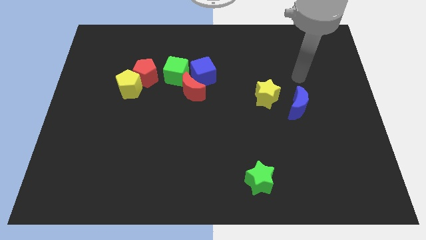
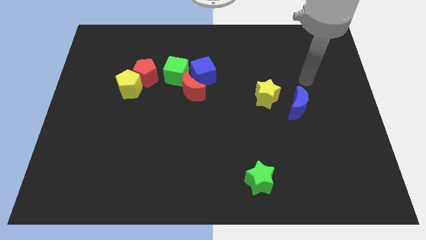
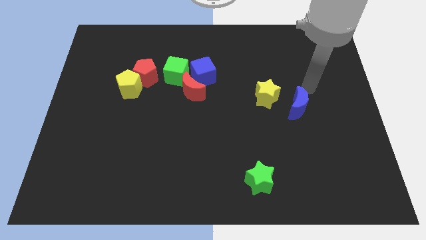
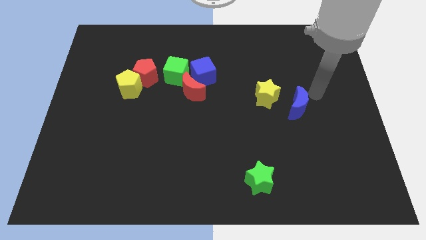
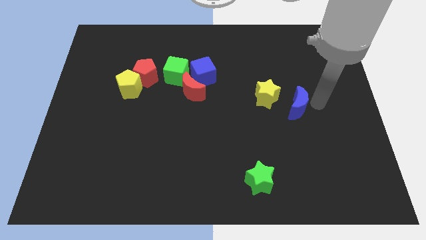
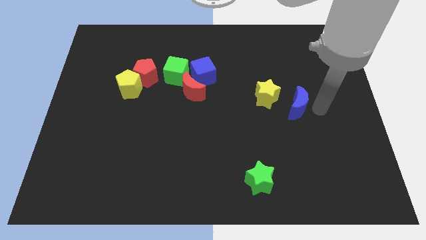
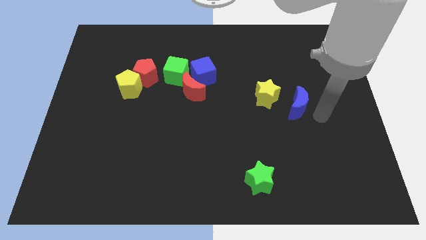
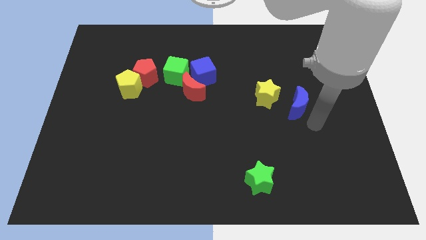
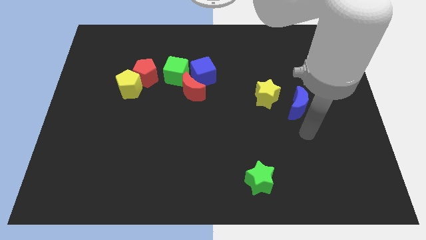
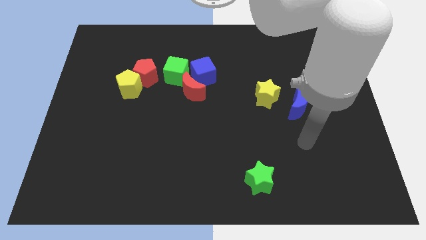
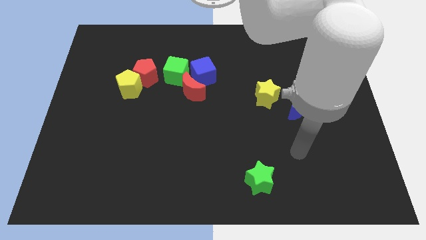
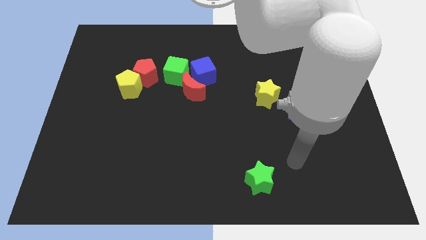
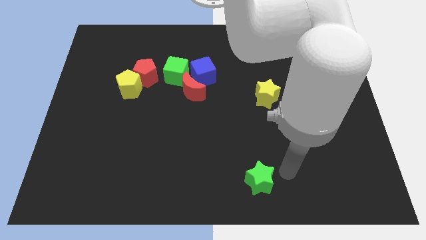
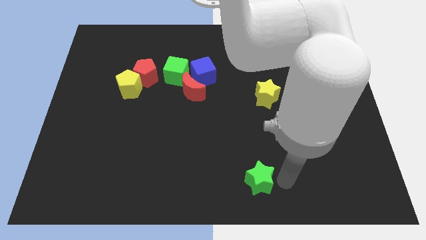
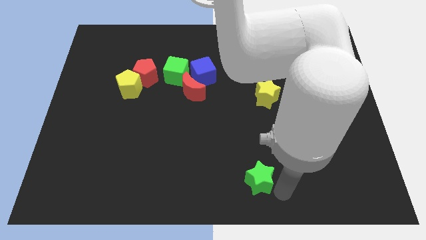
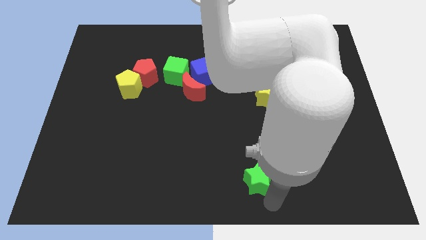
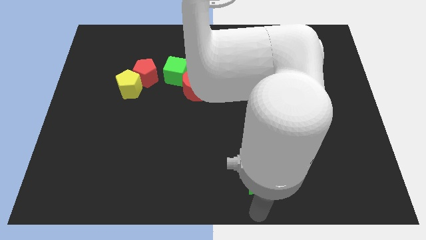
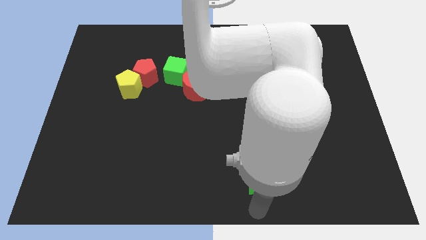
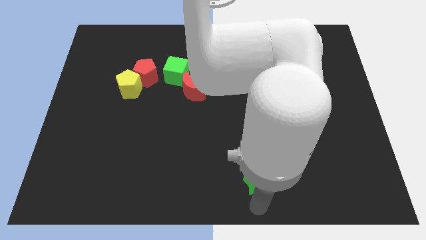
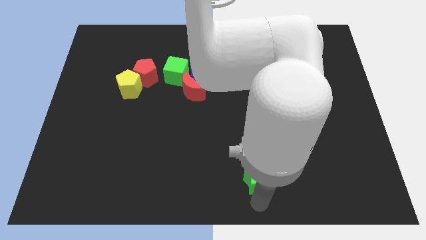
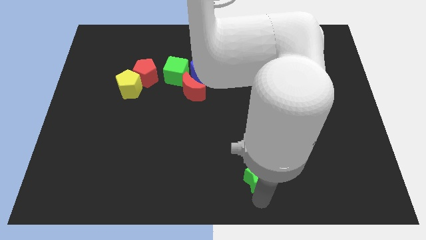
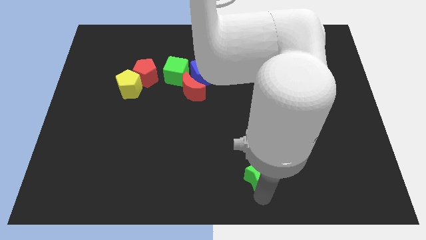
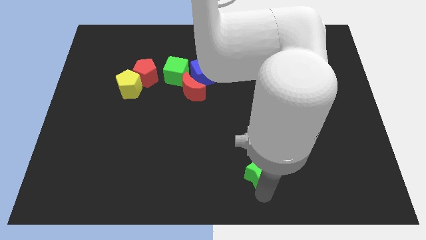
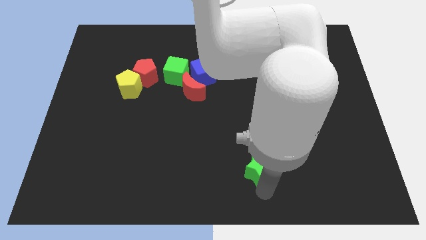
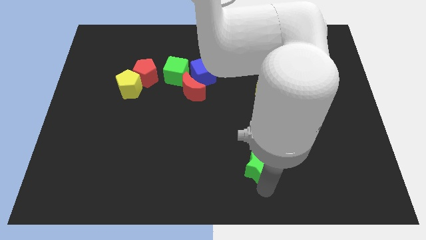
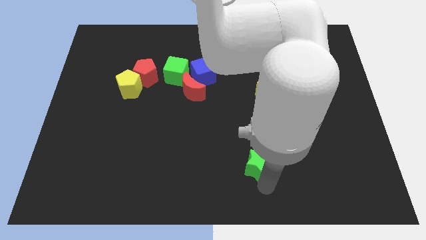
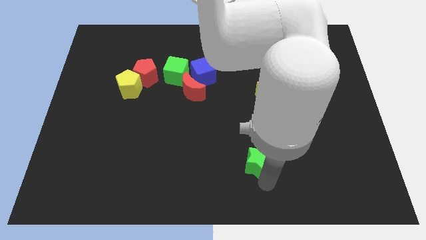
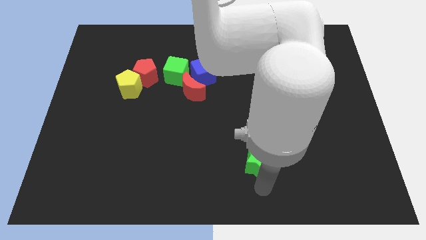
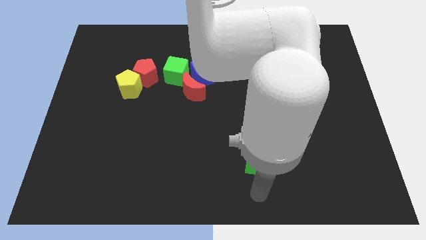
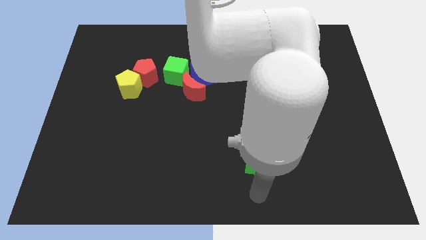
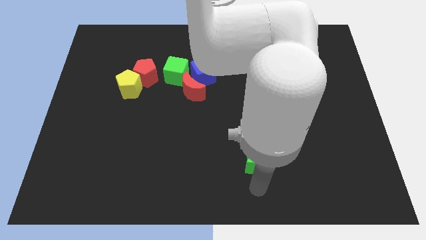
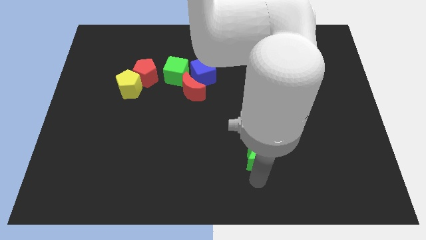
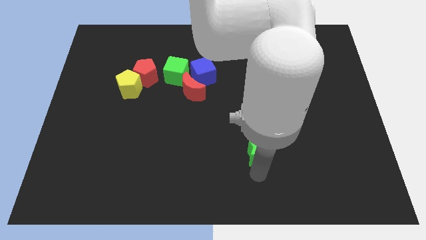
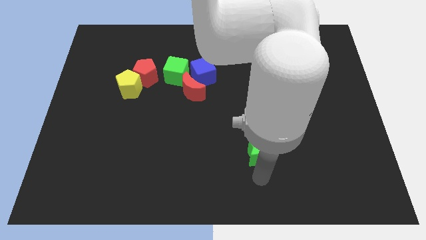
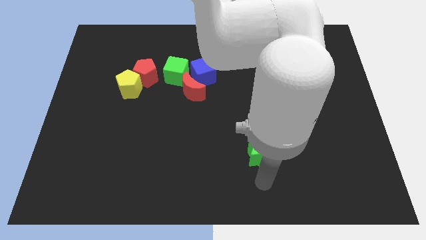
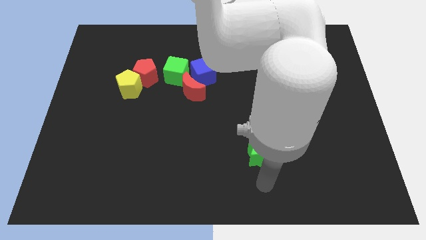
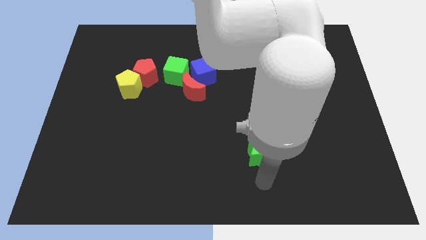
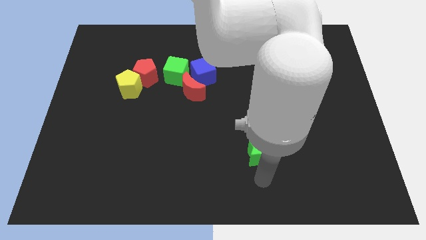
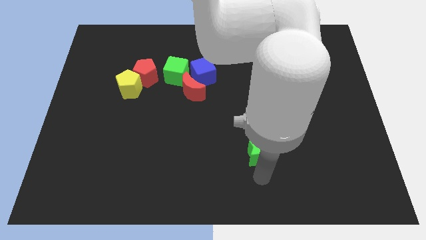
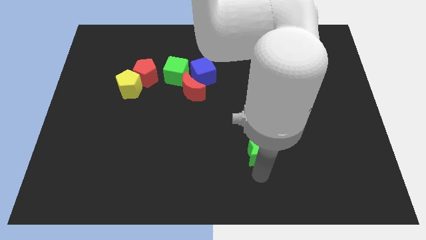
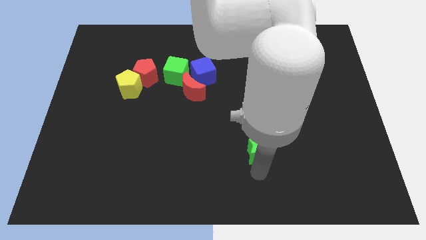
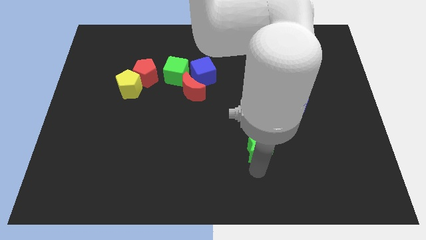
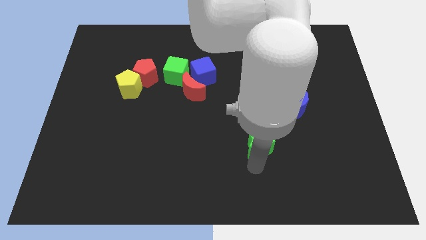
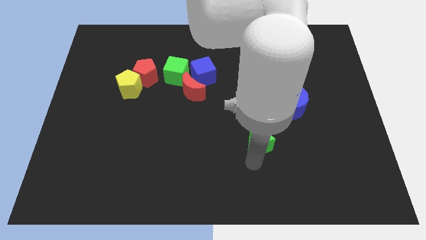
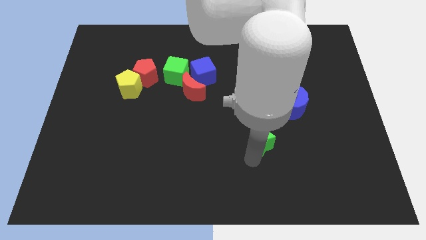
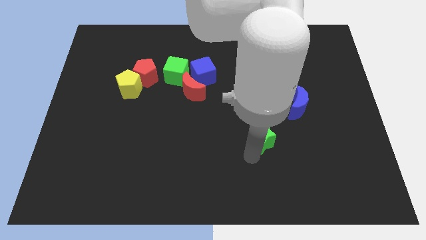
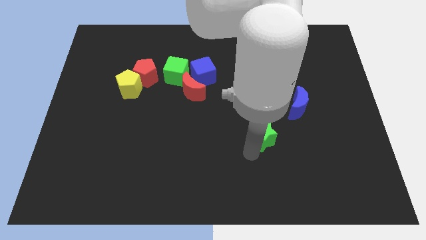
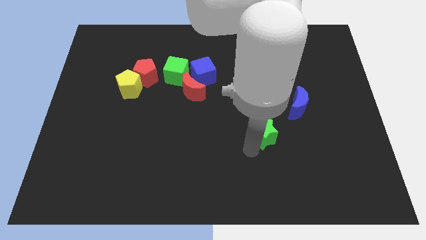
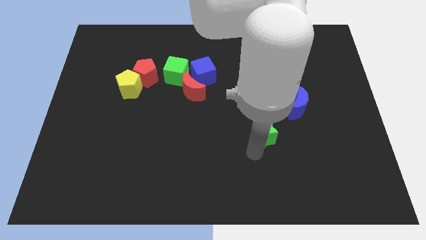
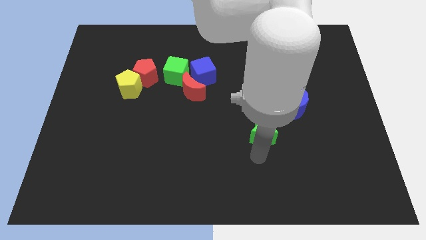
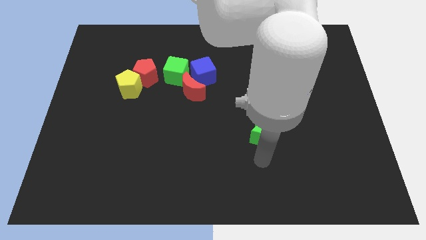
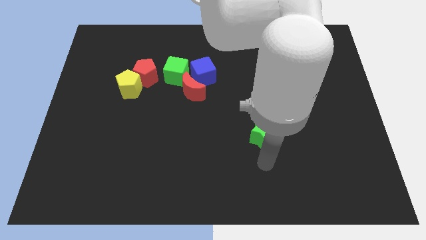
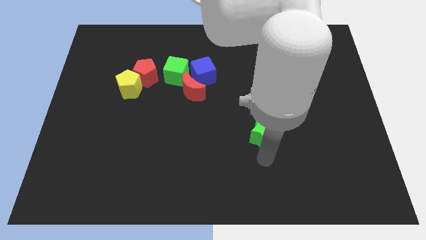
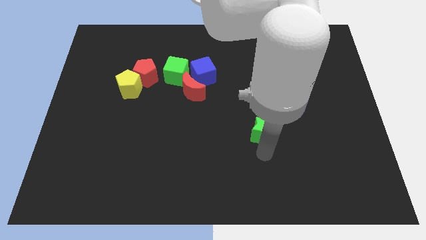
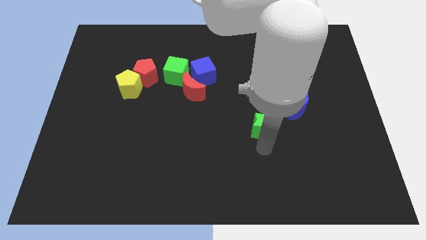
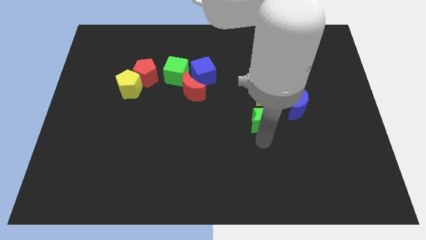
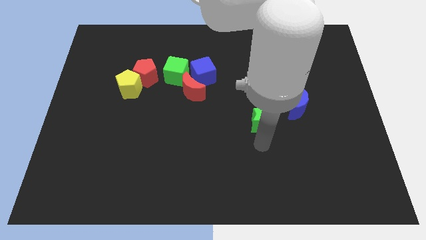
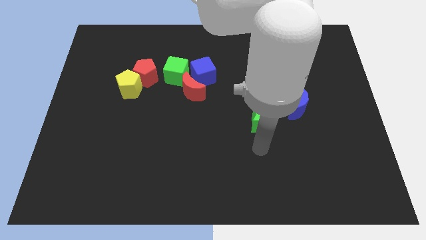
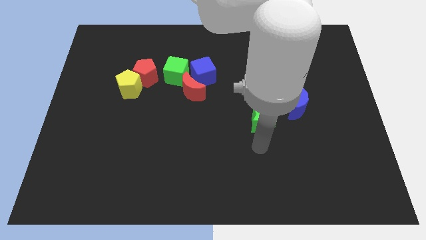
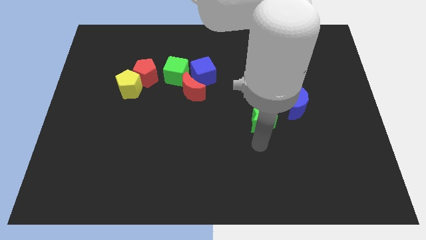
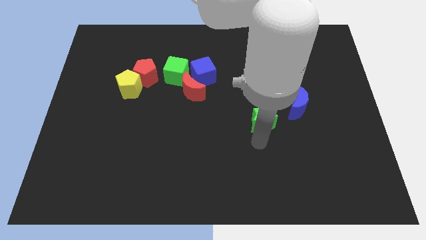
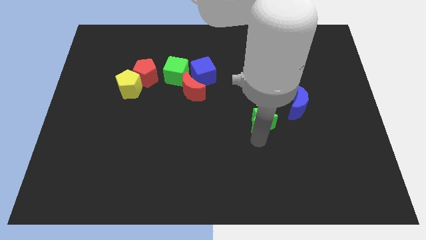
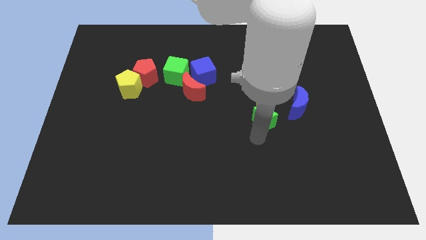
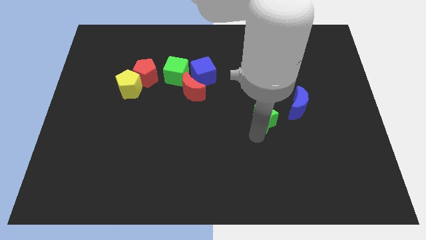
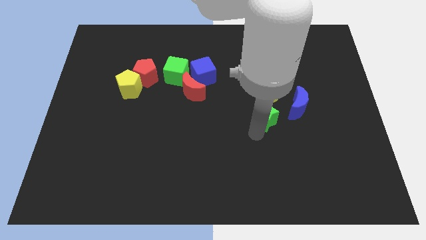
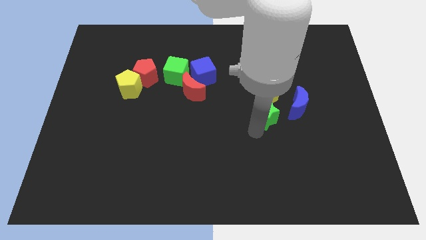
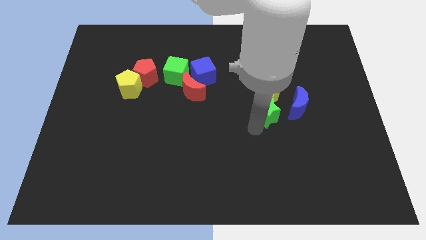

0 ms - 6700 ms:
push the green star towards the yellow star

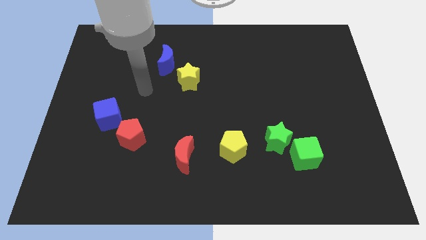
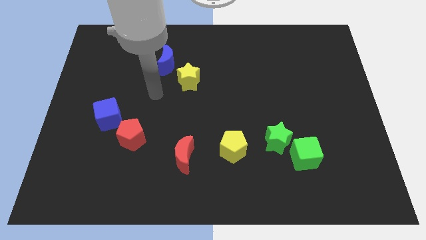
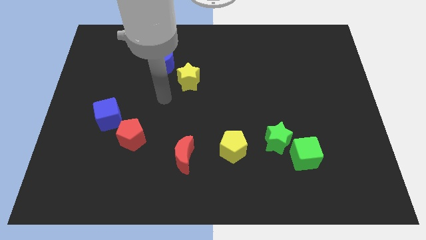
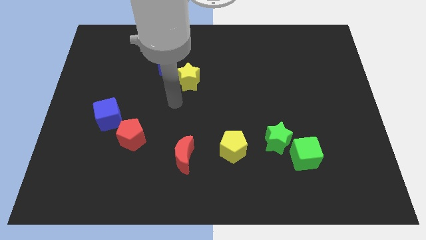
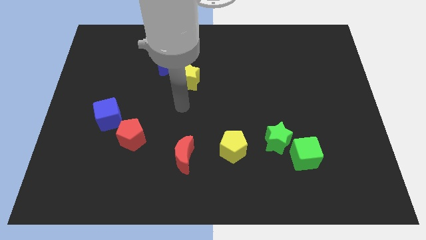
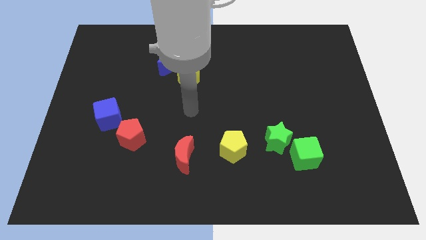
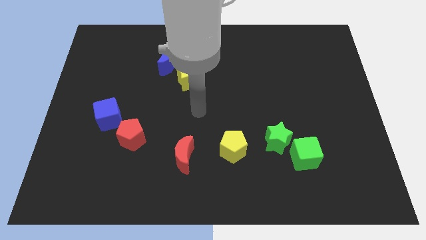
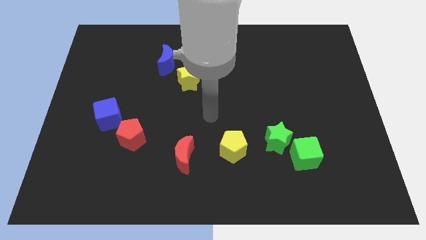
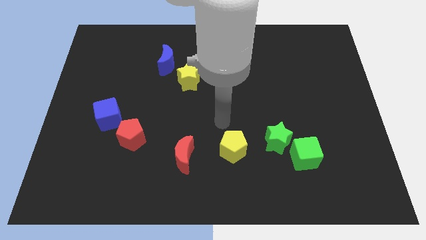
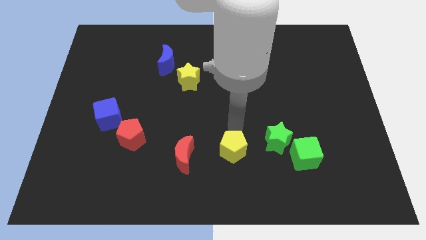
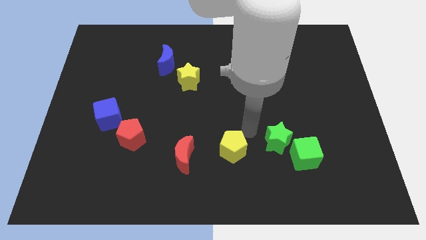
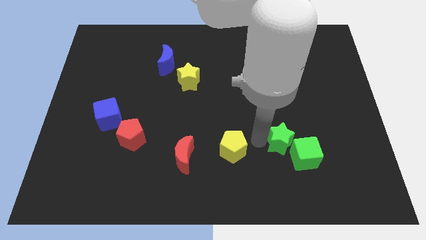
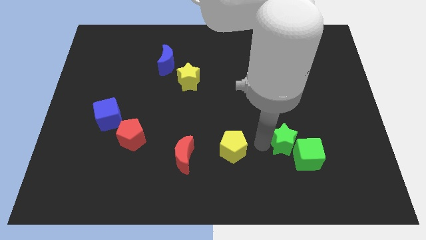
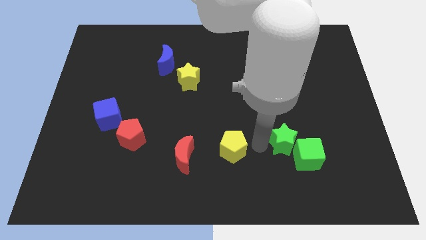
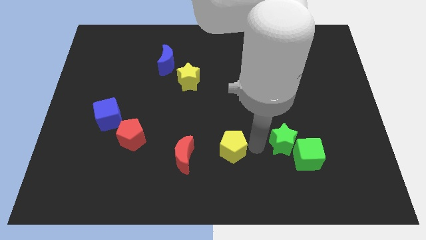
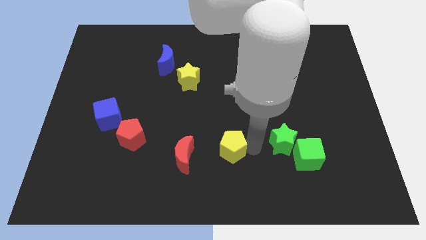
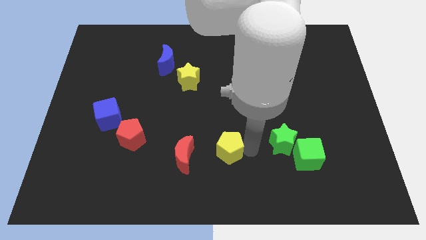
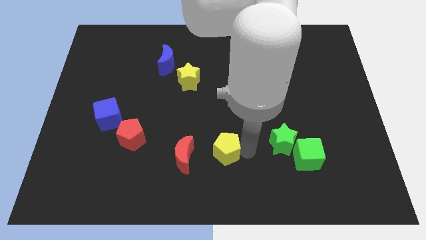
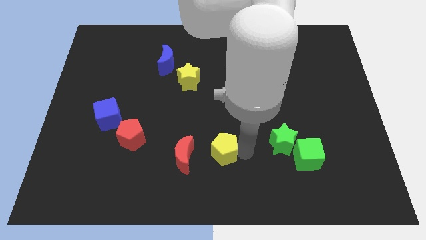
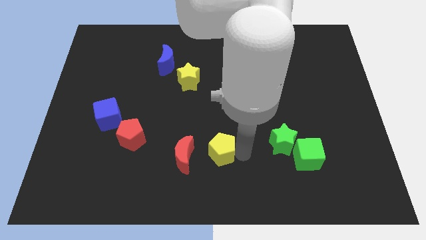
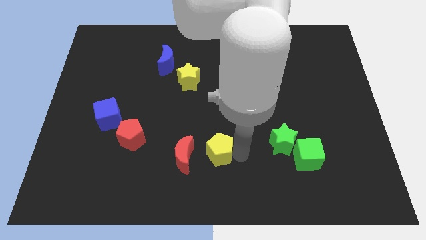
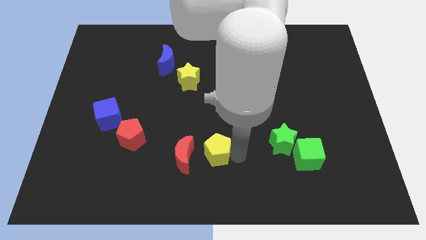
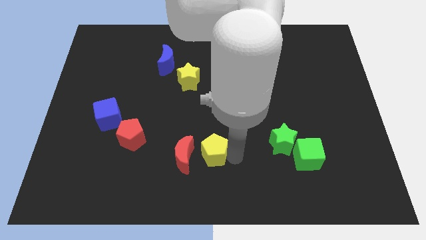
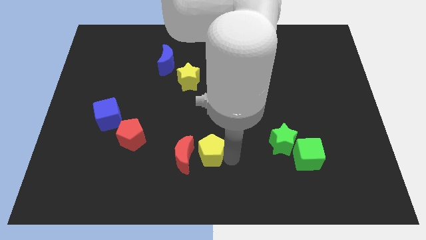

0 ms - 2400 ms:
slide the yellow pentagon to the red moon
